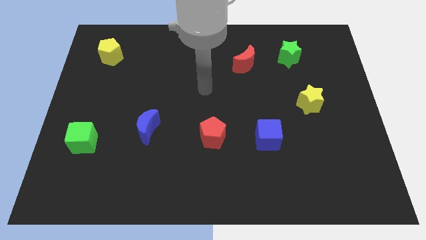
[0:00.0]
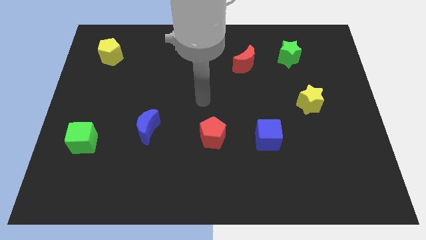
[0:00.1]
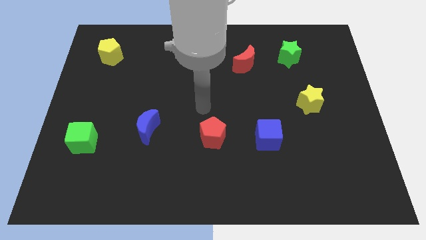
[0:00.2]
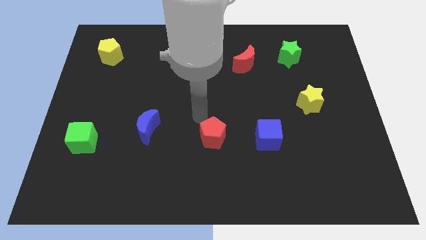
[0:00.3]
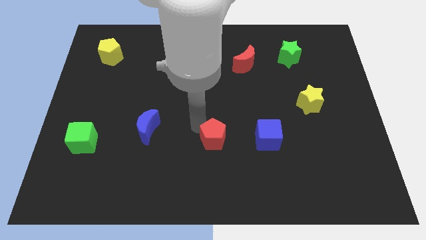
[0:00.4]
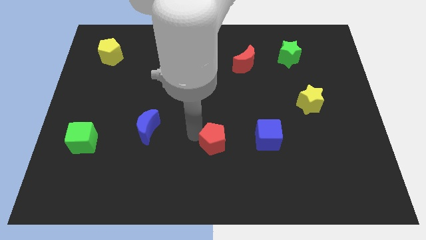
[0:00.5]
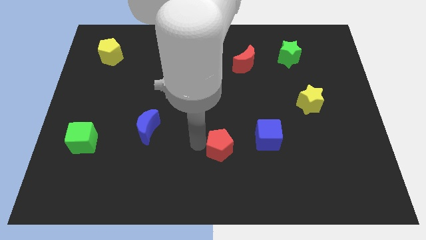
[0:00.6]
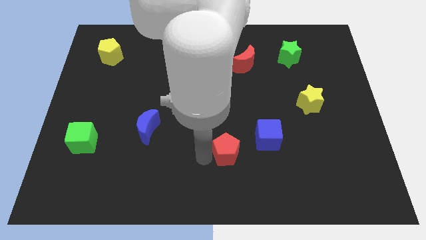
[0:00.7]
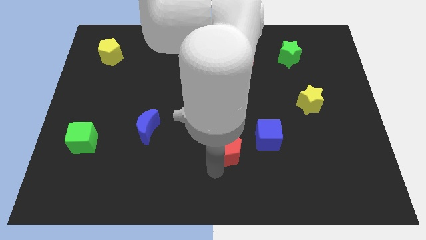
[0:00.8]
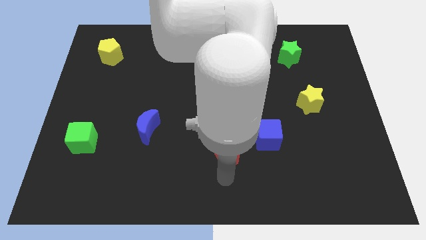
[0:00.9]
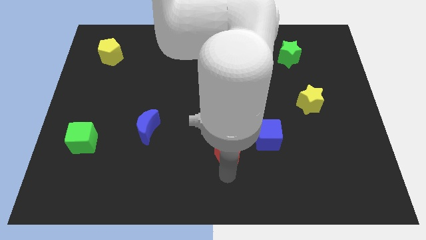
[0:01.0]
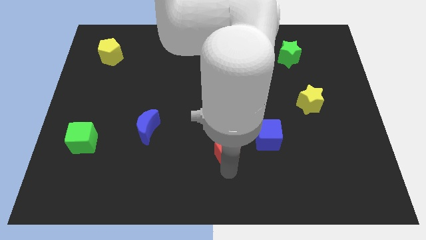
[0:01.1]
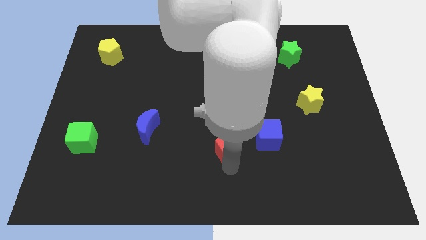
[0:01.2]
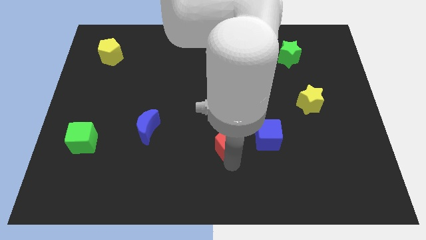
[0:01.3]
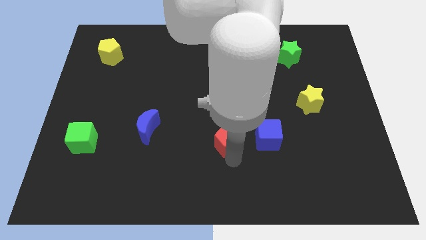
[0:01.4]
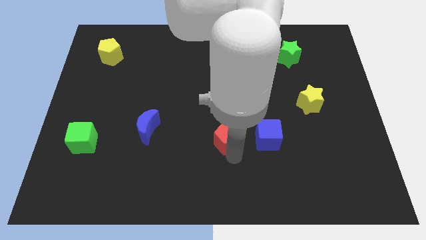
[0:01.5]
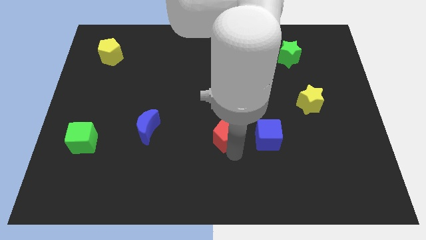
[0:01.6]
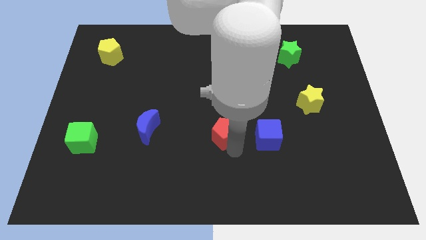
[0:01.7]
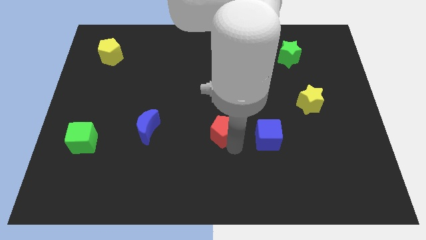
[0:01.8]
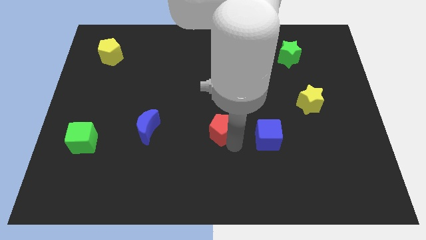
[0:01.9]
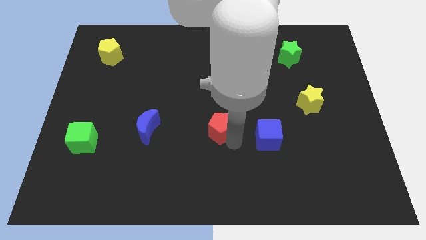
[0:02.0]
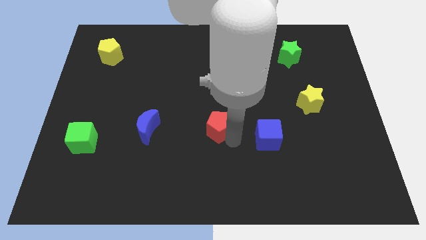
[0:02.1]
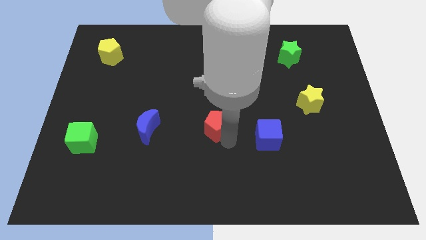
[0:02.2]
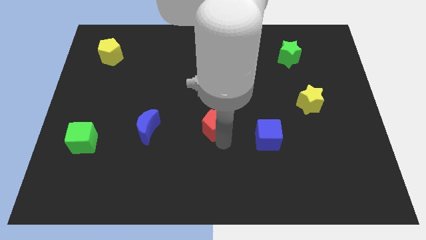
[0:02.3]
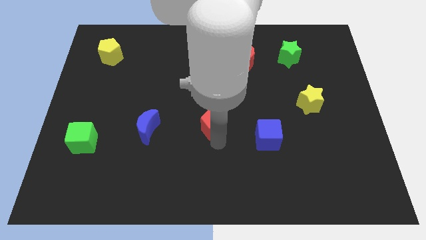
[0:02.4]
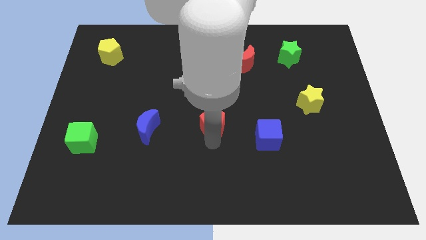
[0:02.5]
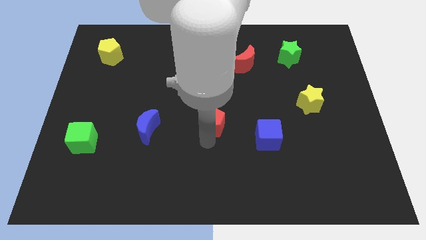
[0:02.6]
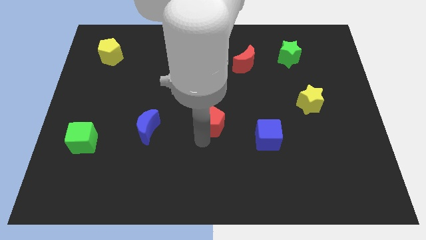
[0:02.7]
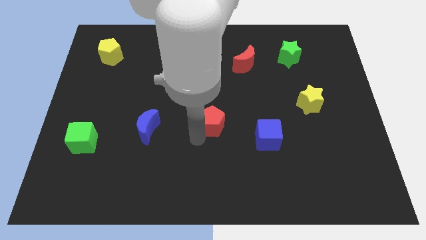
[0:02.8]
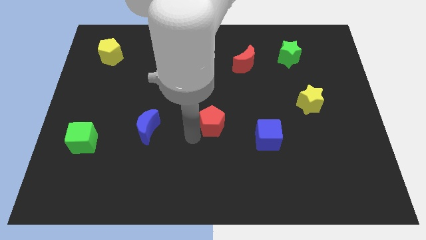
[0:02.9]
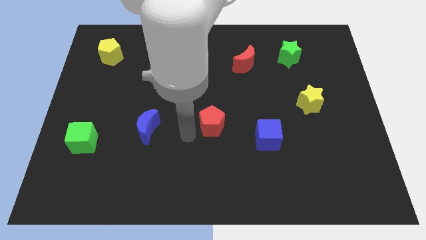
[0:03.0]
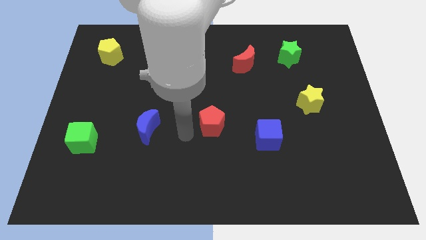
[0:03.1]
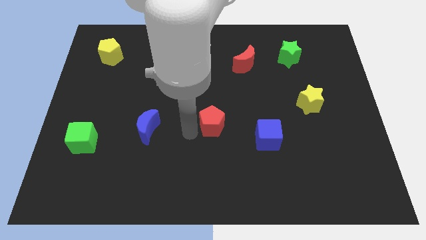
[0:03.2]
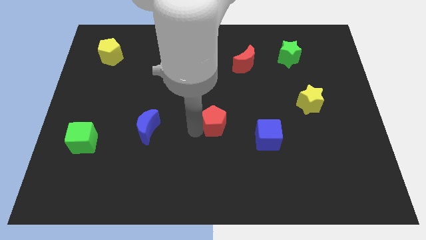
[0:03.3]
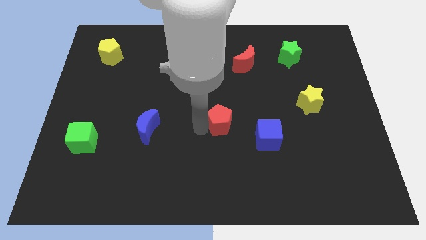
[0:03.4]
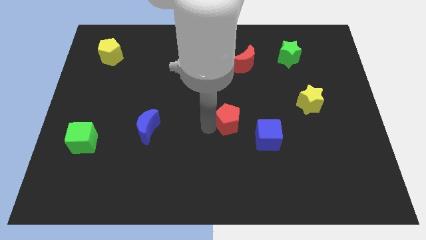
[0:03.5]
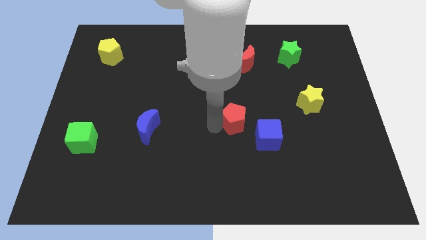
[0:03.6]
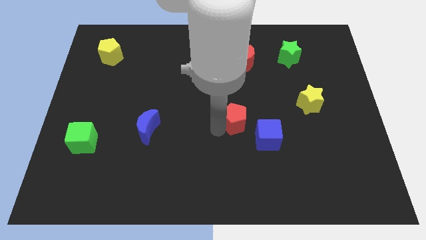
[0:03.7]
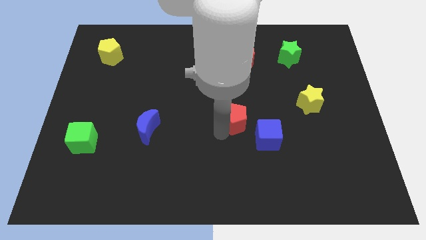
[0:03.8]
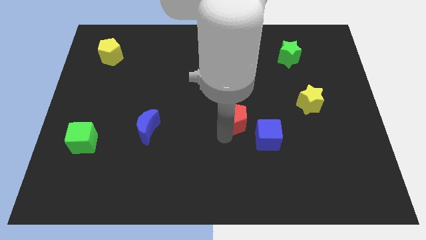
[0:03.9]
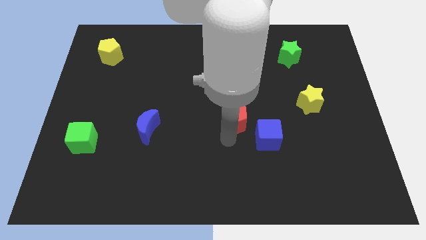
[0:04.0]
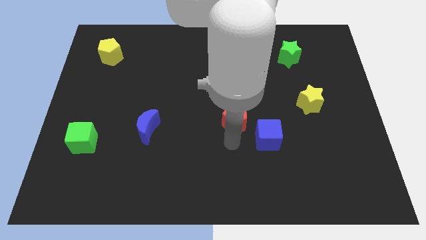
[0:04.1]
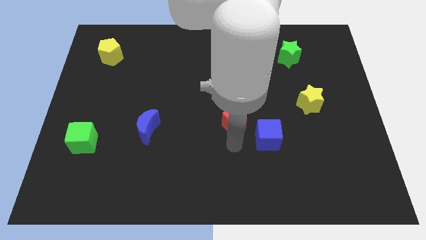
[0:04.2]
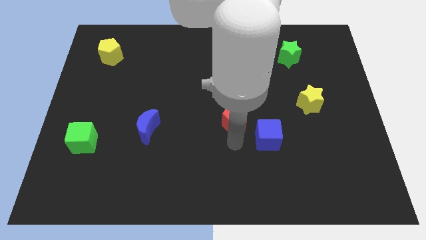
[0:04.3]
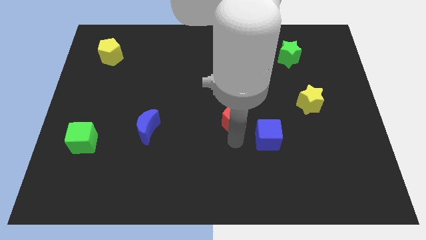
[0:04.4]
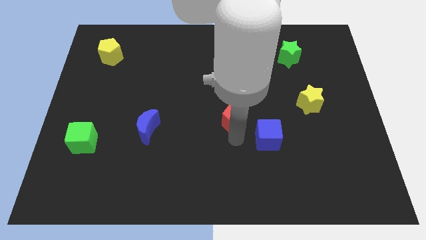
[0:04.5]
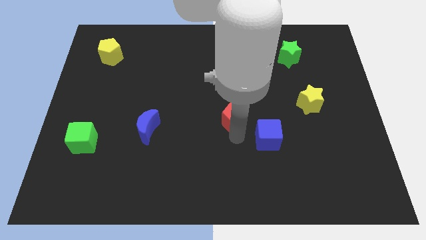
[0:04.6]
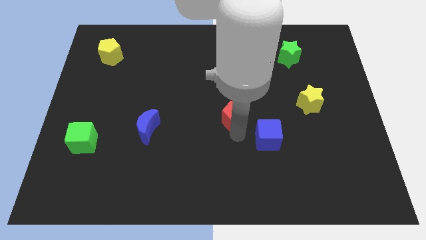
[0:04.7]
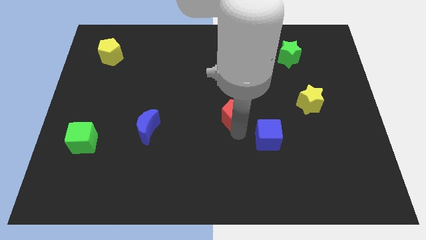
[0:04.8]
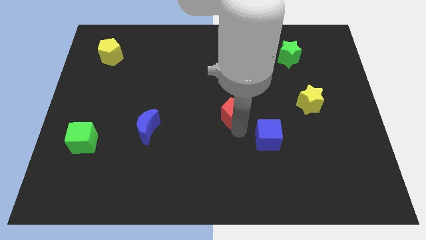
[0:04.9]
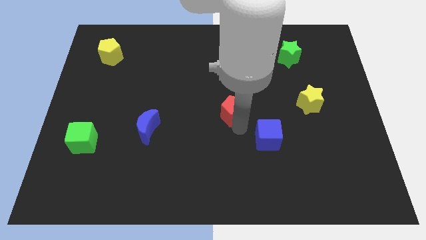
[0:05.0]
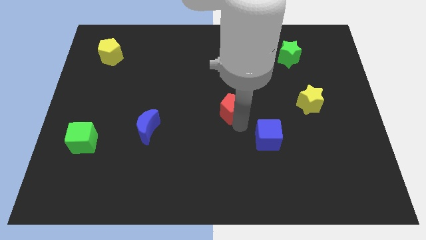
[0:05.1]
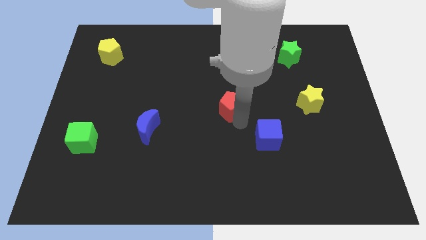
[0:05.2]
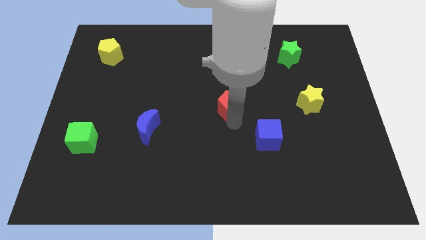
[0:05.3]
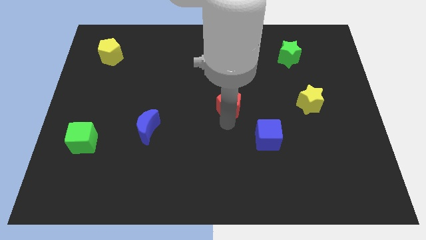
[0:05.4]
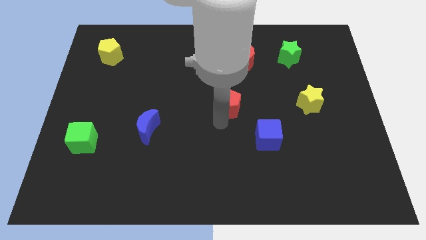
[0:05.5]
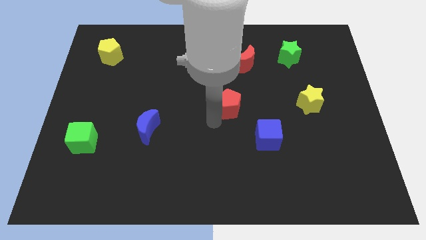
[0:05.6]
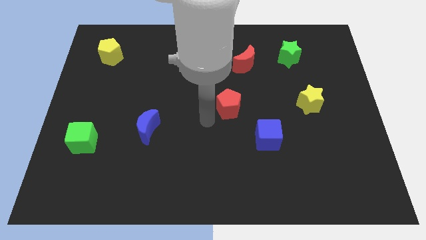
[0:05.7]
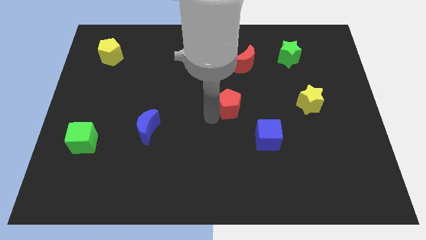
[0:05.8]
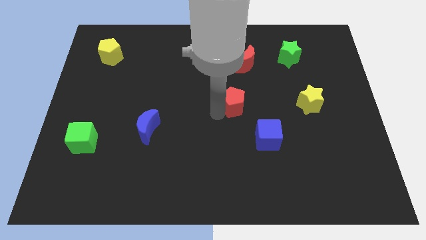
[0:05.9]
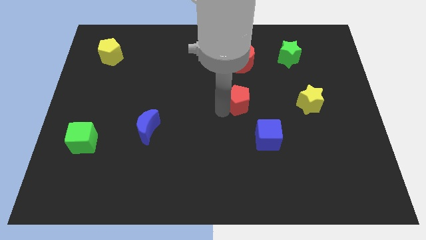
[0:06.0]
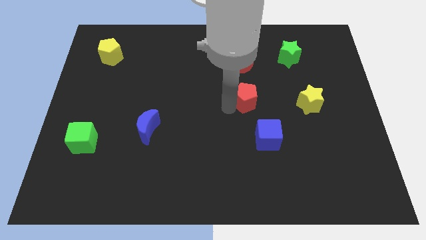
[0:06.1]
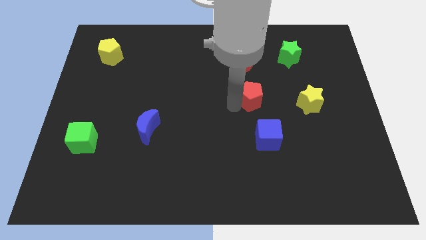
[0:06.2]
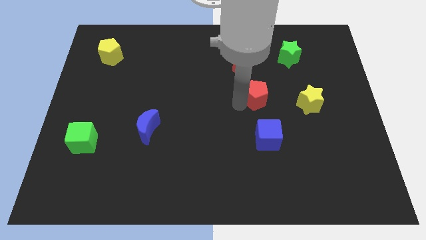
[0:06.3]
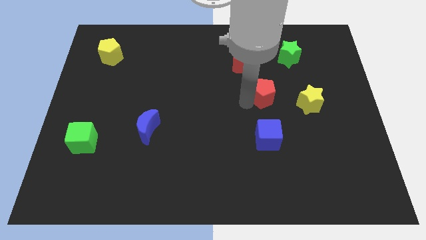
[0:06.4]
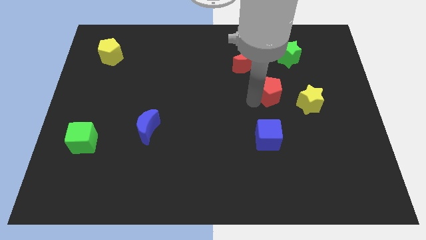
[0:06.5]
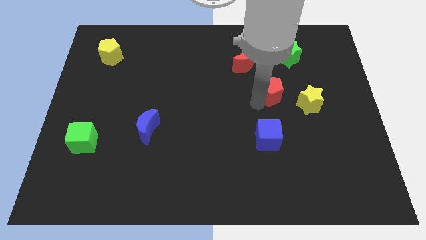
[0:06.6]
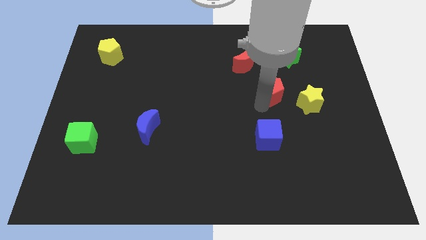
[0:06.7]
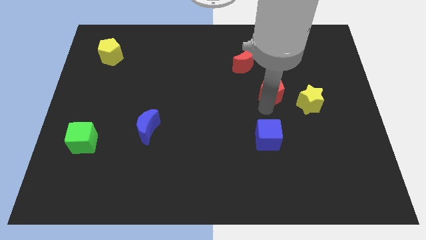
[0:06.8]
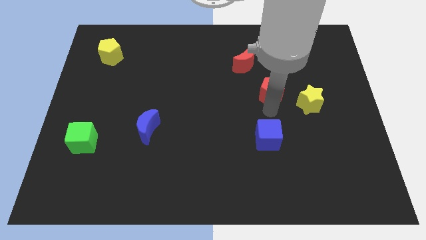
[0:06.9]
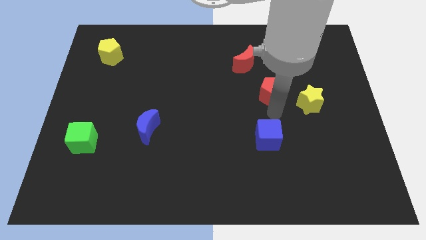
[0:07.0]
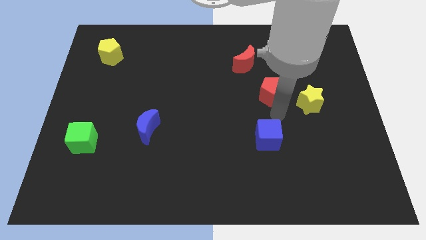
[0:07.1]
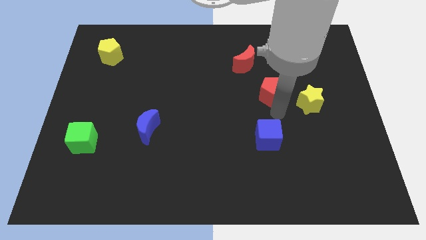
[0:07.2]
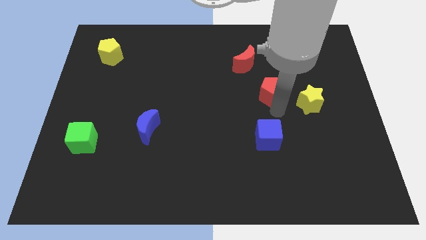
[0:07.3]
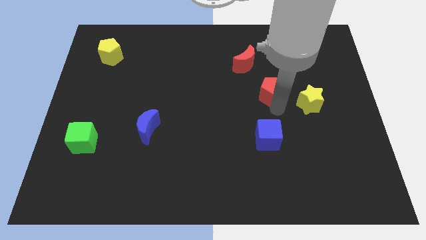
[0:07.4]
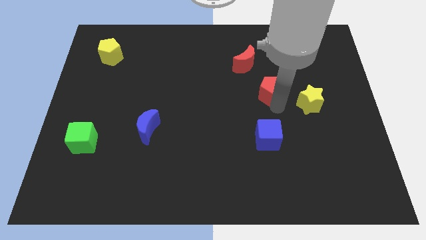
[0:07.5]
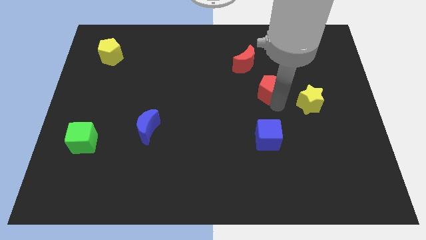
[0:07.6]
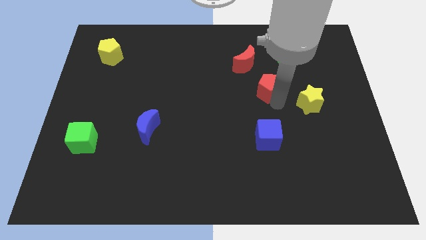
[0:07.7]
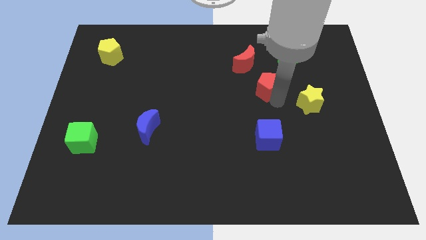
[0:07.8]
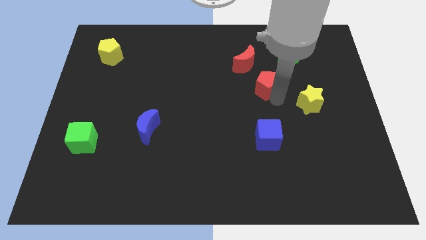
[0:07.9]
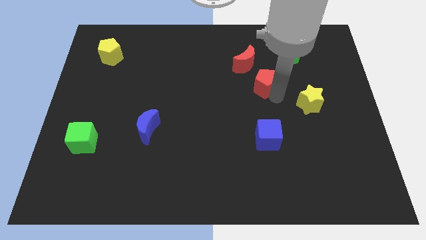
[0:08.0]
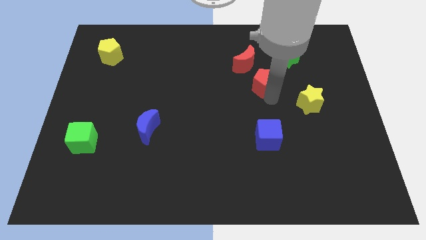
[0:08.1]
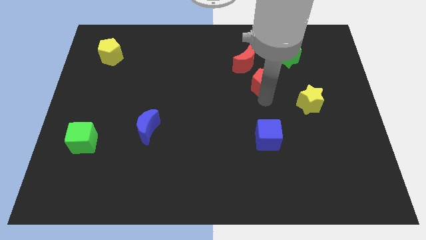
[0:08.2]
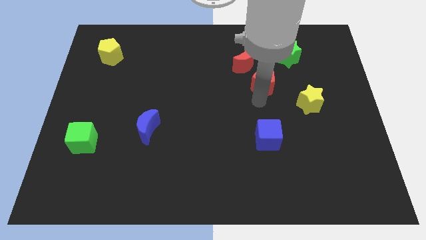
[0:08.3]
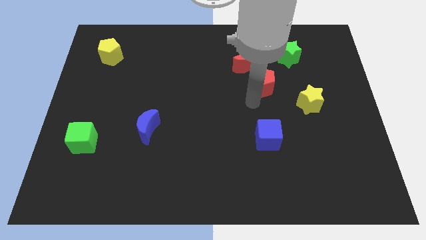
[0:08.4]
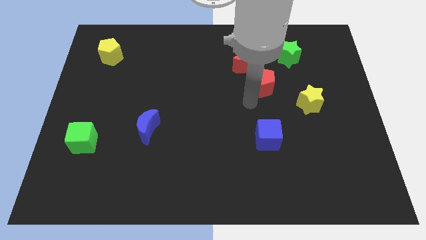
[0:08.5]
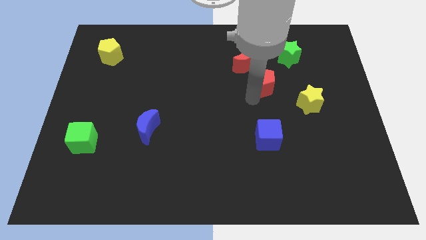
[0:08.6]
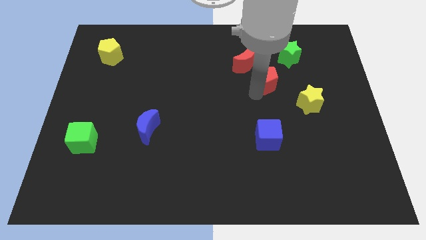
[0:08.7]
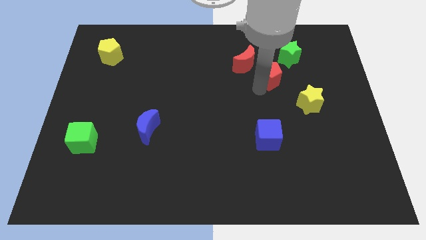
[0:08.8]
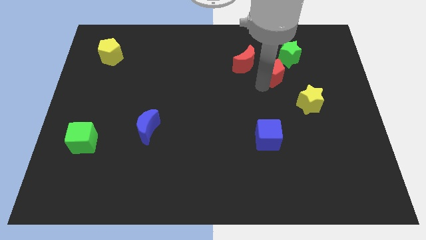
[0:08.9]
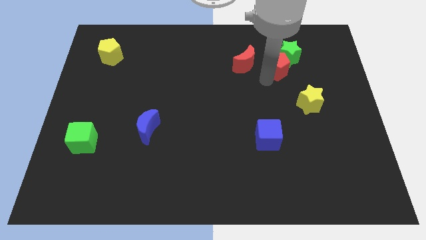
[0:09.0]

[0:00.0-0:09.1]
put the red pentagon towards the green star
